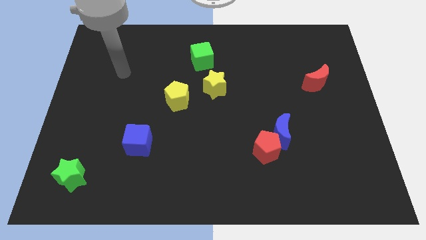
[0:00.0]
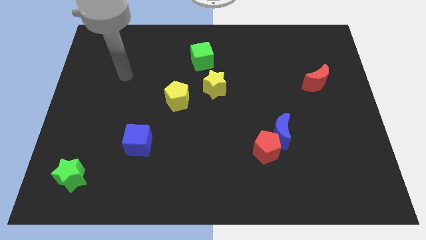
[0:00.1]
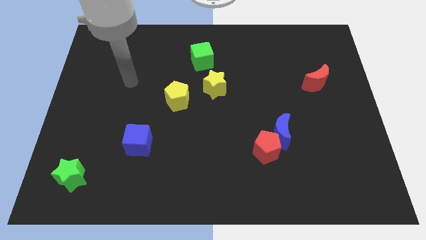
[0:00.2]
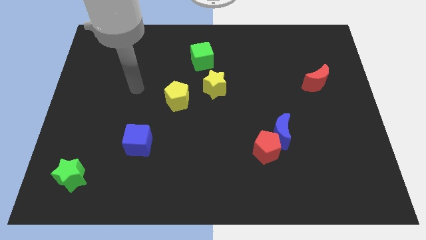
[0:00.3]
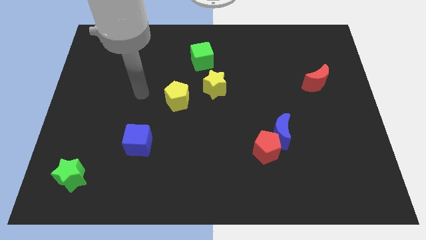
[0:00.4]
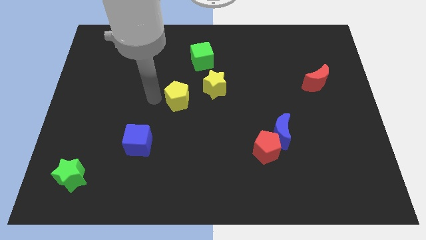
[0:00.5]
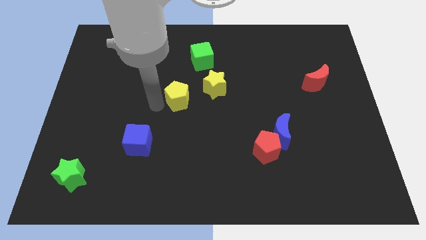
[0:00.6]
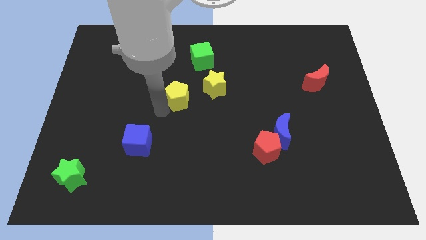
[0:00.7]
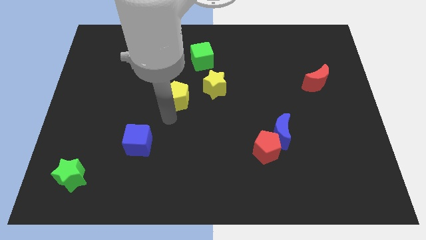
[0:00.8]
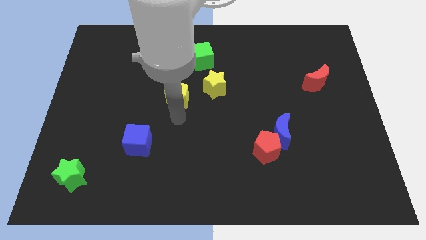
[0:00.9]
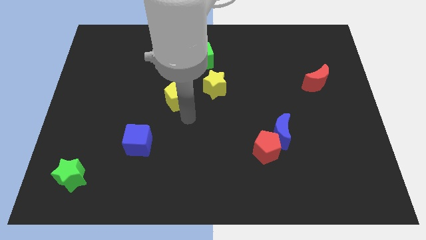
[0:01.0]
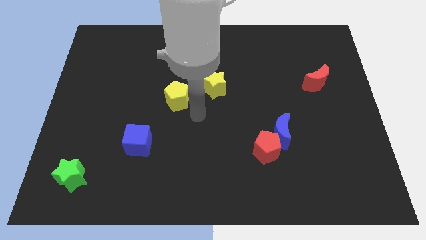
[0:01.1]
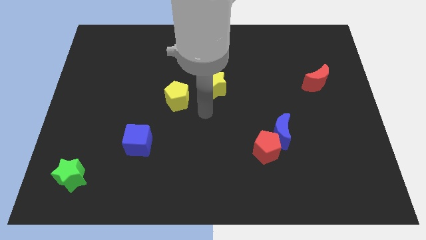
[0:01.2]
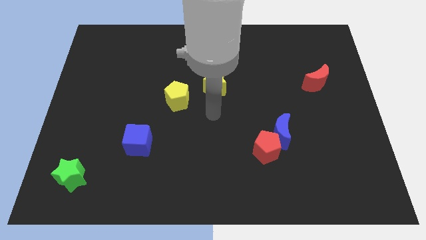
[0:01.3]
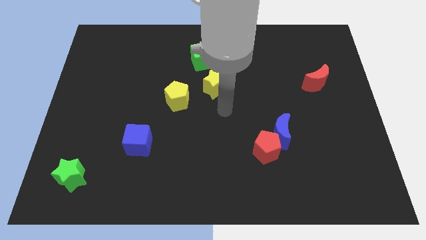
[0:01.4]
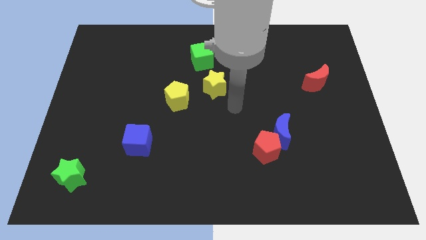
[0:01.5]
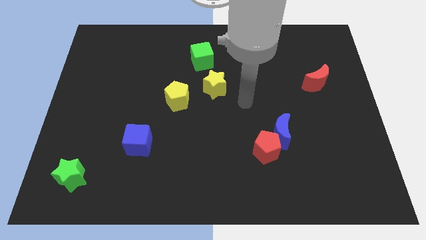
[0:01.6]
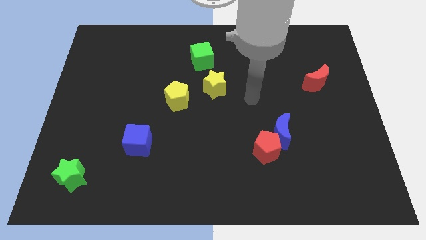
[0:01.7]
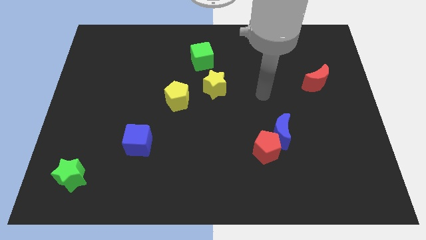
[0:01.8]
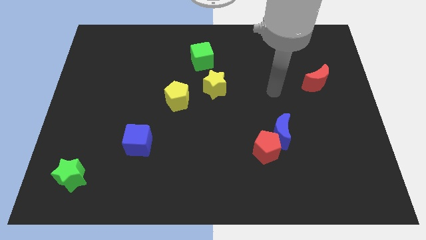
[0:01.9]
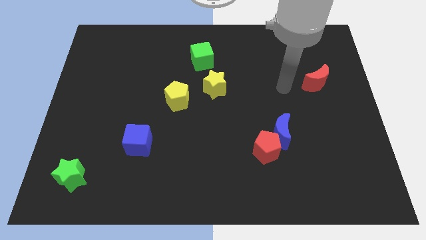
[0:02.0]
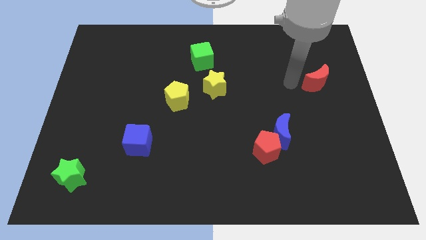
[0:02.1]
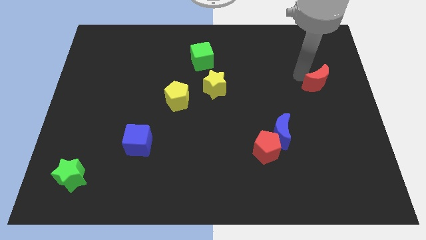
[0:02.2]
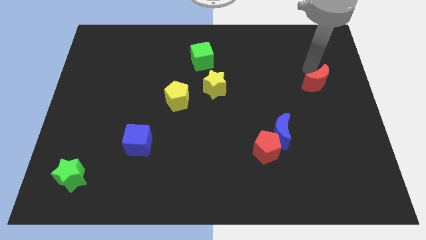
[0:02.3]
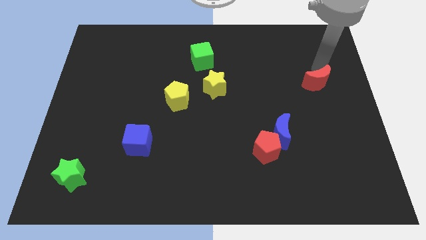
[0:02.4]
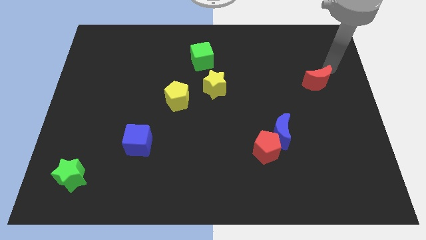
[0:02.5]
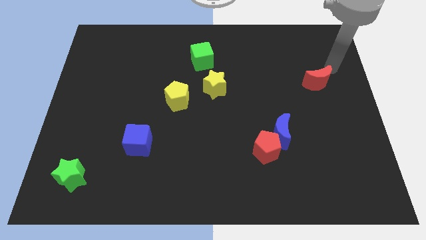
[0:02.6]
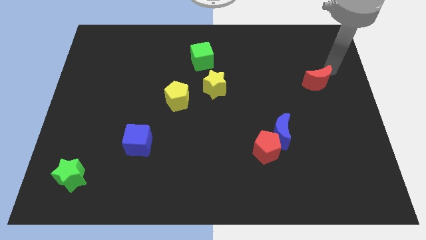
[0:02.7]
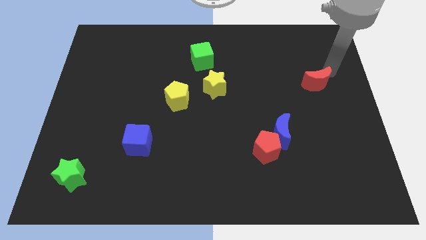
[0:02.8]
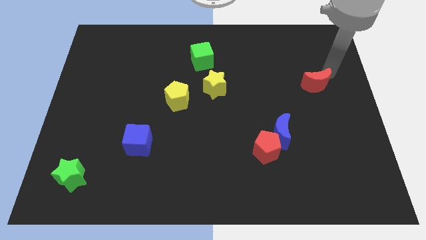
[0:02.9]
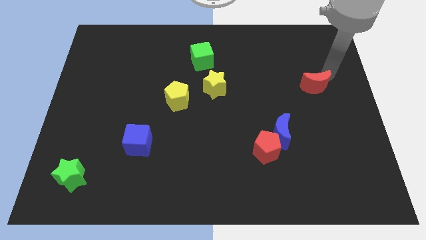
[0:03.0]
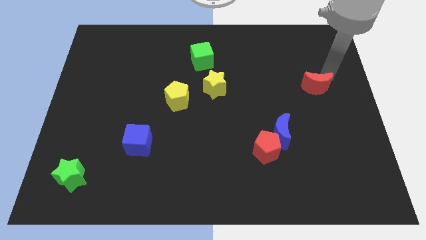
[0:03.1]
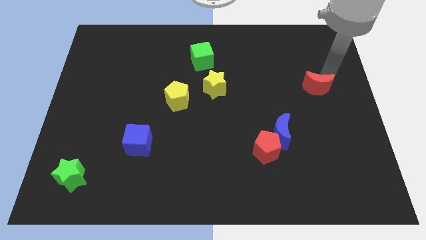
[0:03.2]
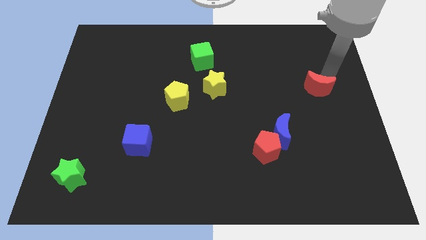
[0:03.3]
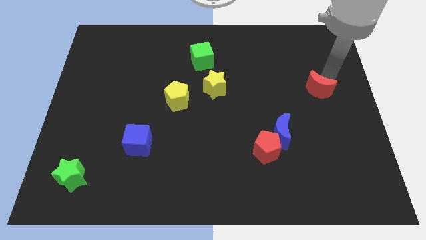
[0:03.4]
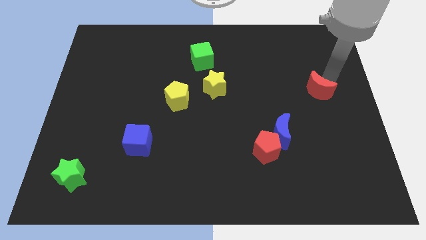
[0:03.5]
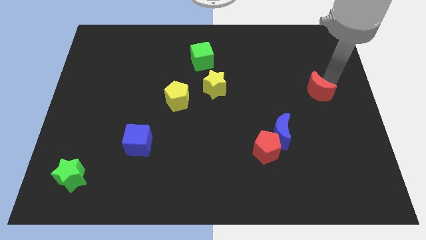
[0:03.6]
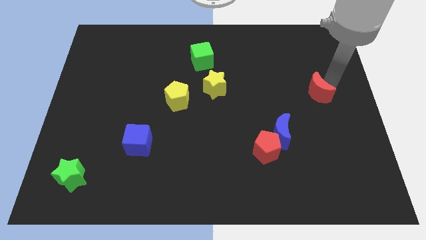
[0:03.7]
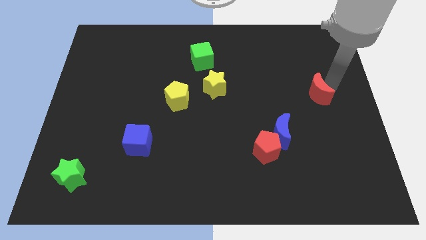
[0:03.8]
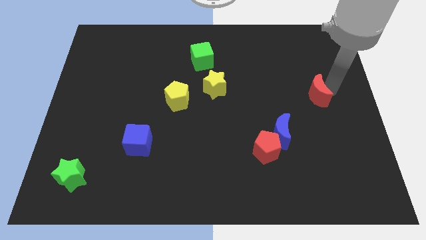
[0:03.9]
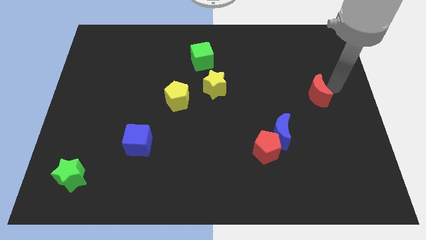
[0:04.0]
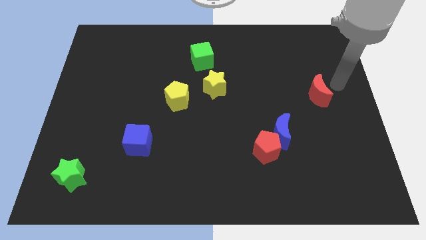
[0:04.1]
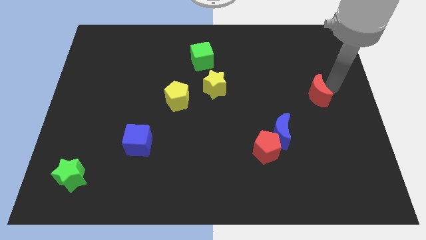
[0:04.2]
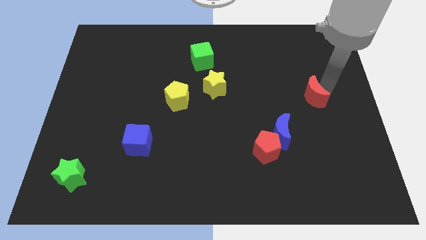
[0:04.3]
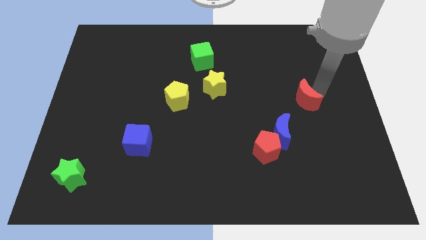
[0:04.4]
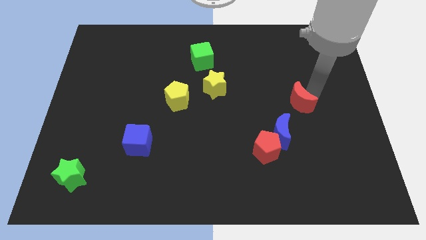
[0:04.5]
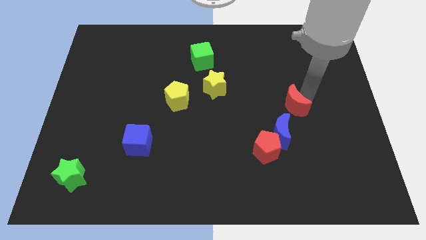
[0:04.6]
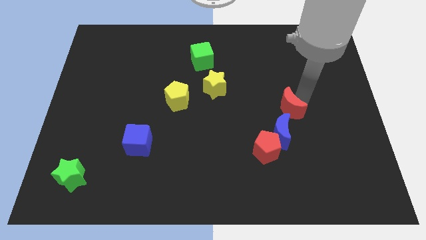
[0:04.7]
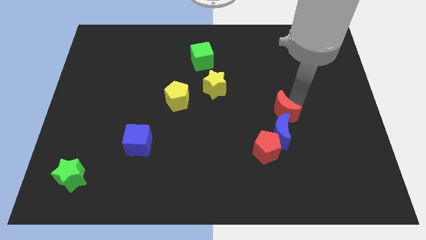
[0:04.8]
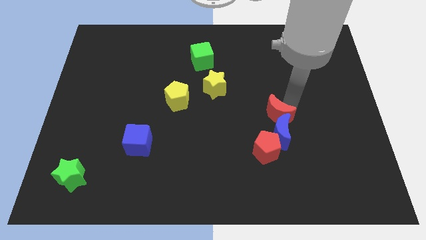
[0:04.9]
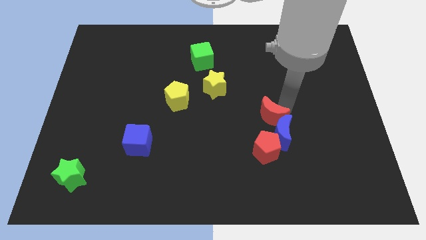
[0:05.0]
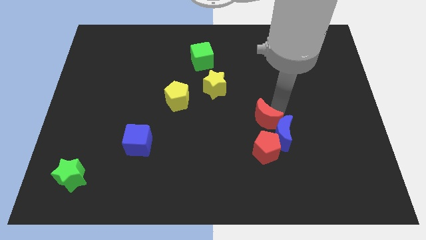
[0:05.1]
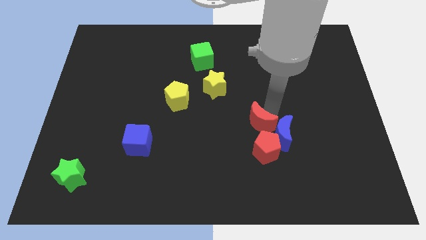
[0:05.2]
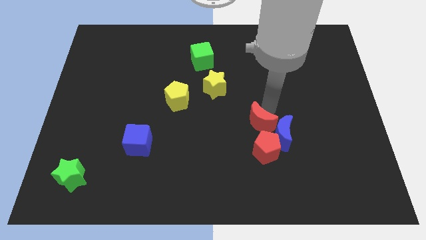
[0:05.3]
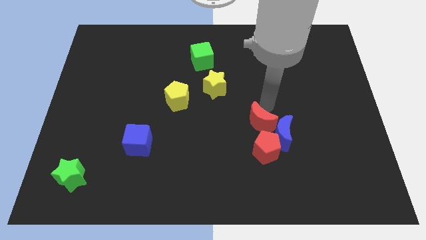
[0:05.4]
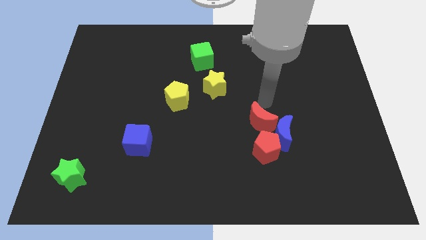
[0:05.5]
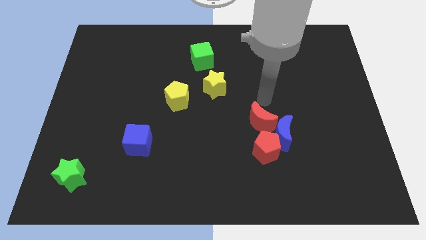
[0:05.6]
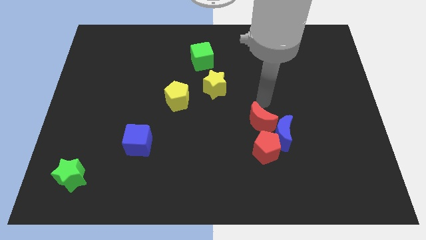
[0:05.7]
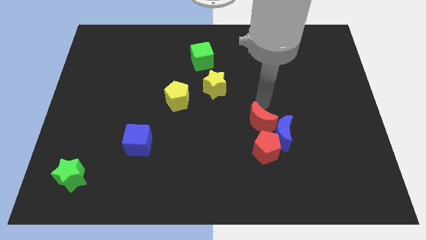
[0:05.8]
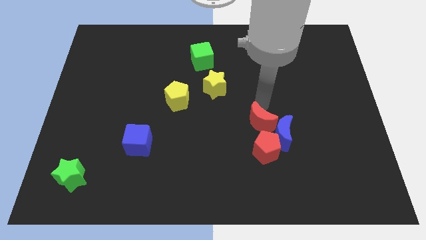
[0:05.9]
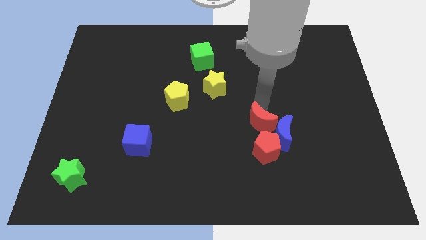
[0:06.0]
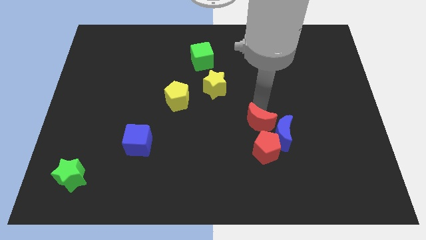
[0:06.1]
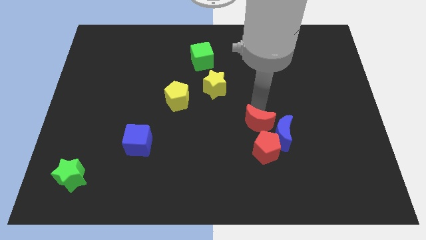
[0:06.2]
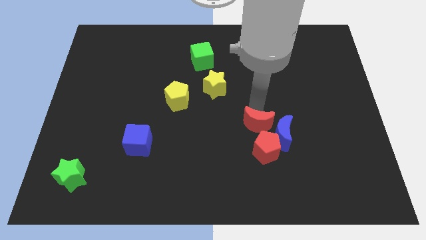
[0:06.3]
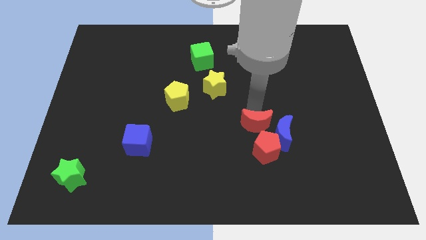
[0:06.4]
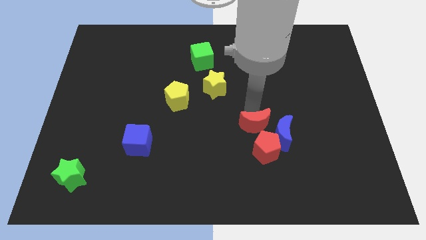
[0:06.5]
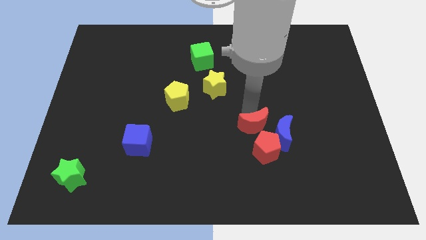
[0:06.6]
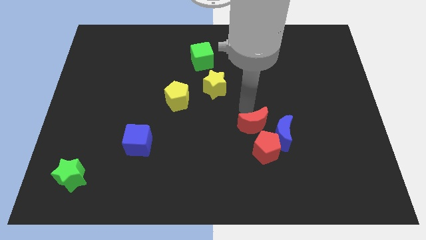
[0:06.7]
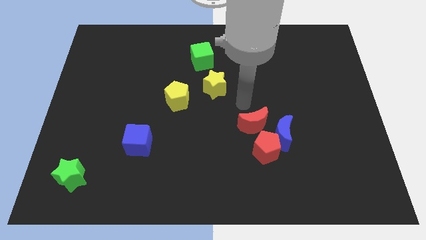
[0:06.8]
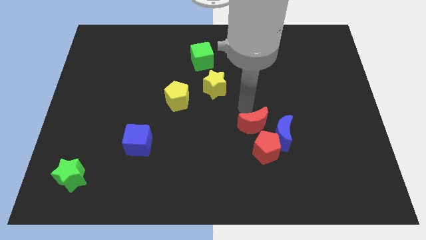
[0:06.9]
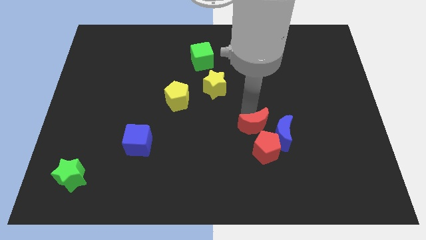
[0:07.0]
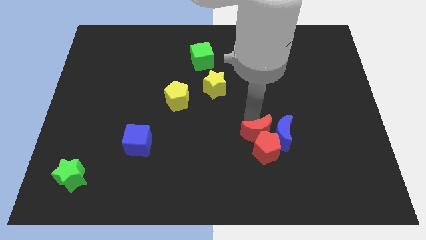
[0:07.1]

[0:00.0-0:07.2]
slide the red moon to the red pentagon
